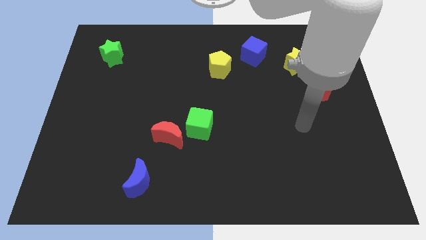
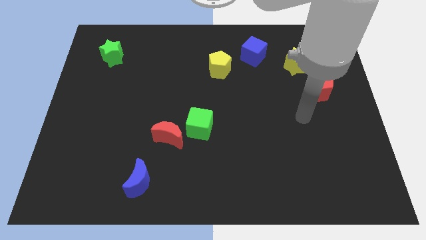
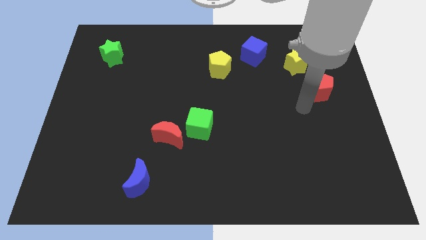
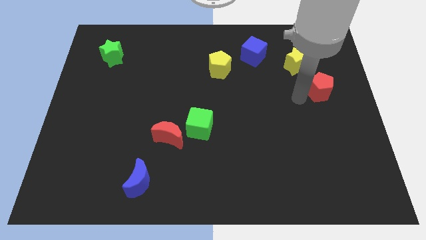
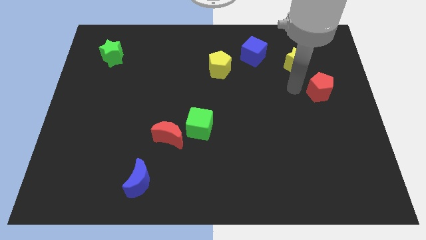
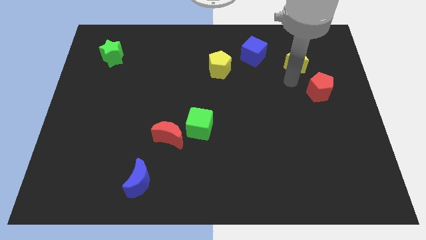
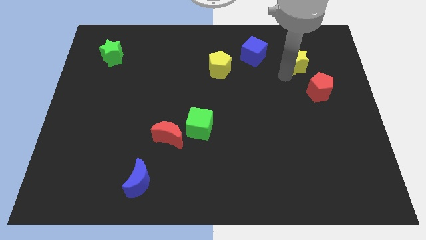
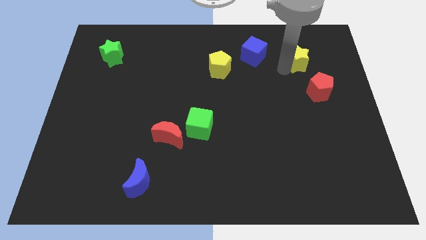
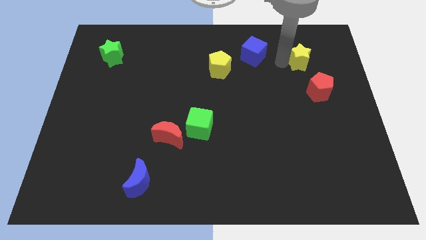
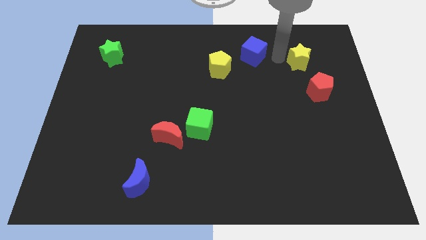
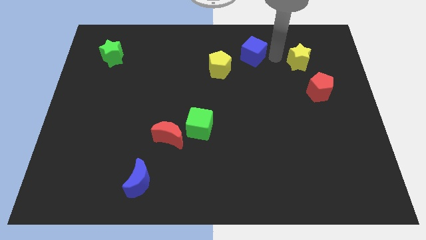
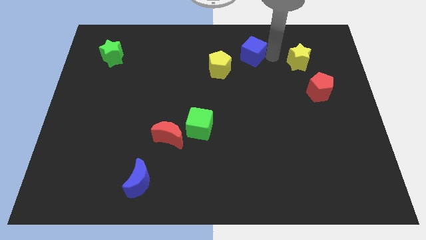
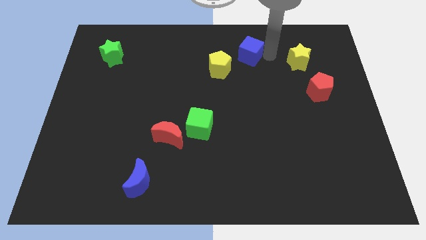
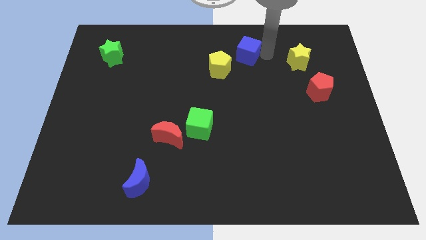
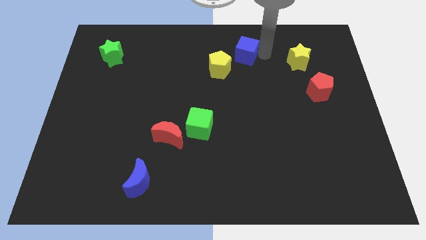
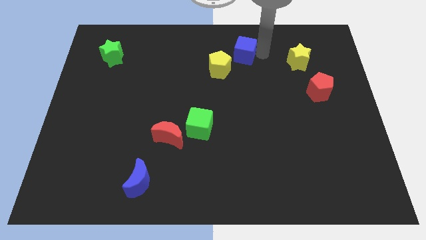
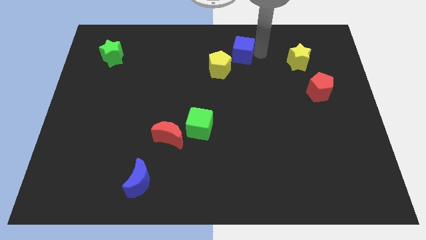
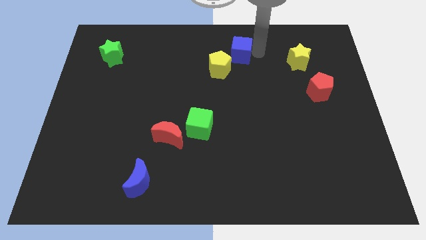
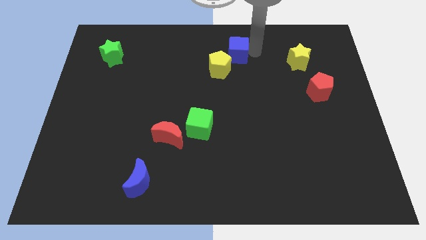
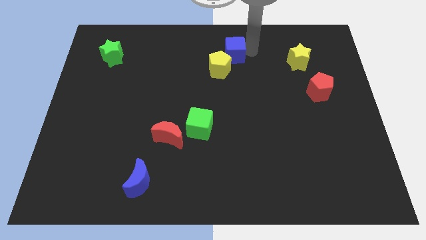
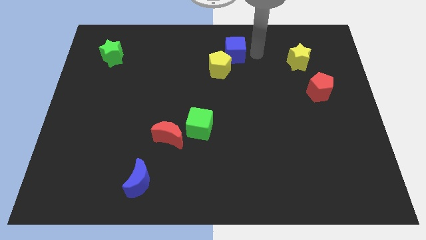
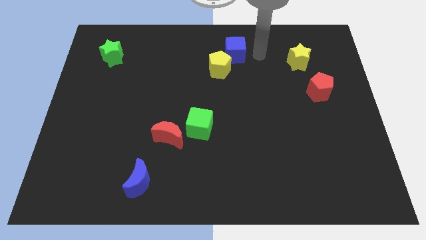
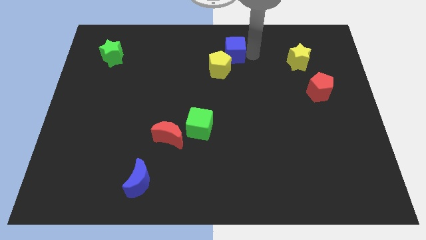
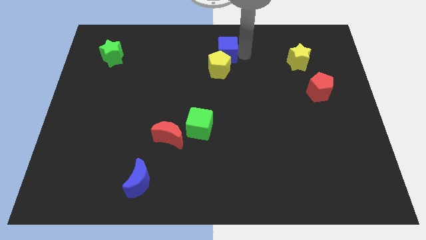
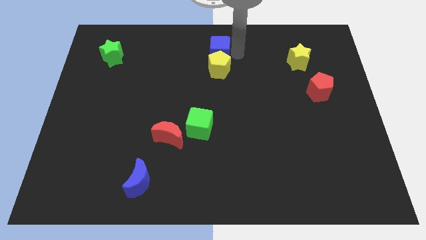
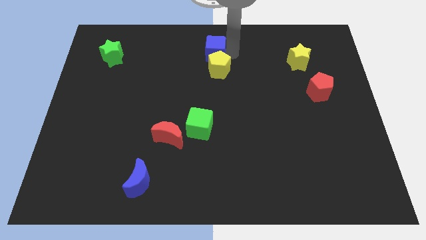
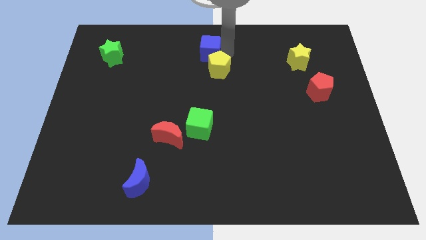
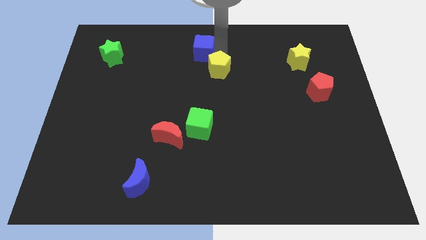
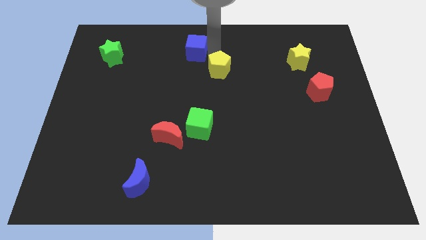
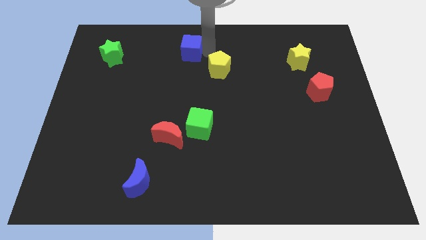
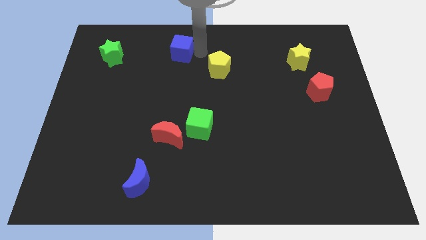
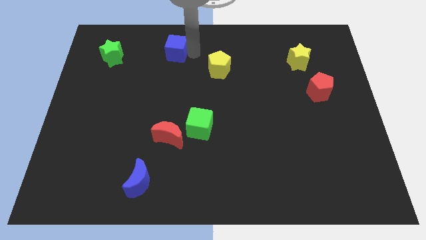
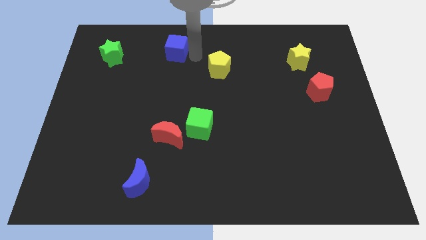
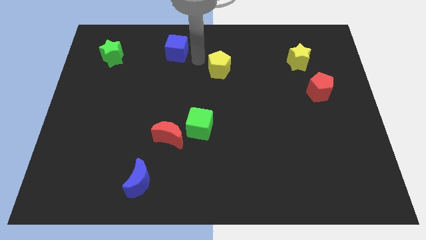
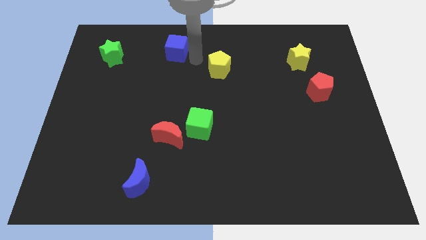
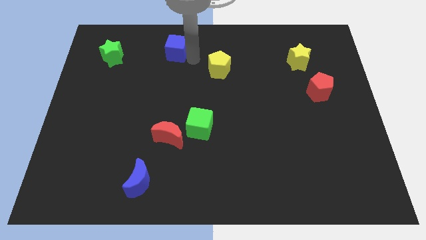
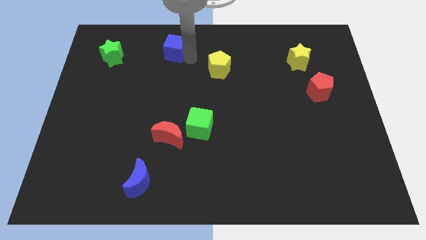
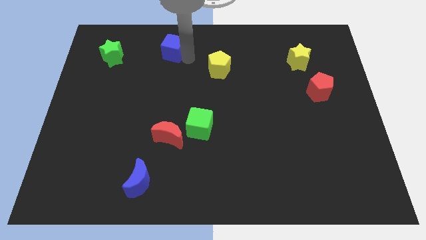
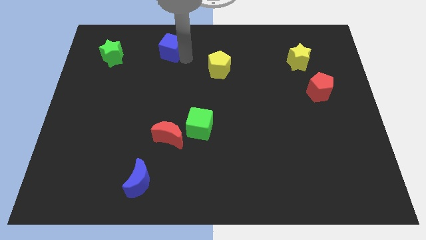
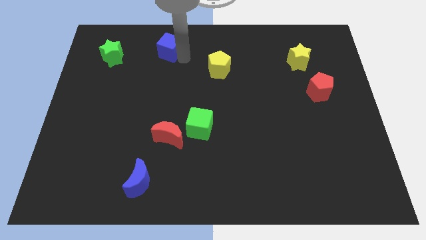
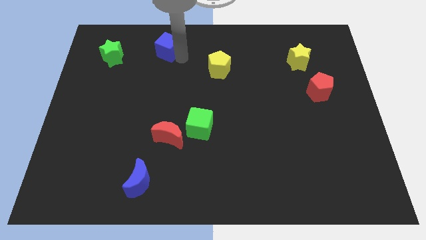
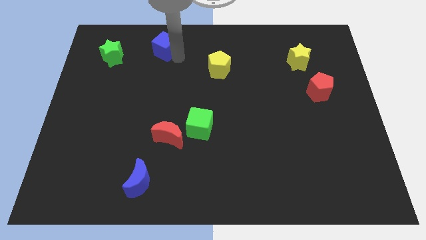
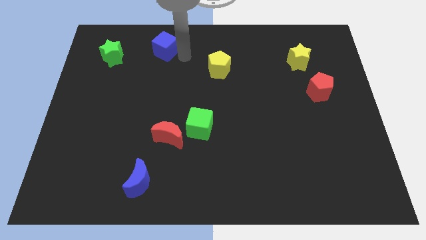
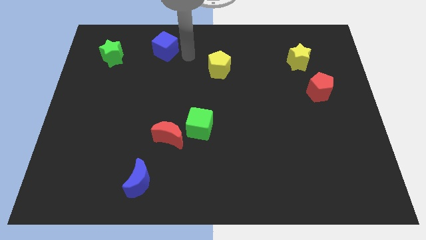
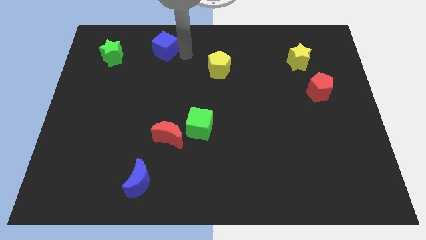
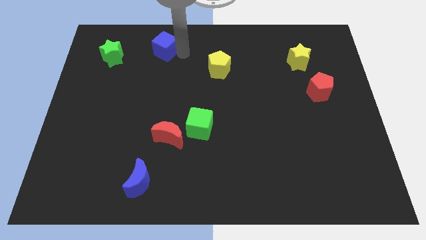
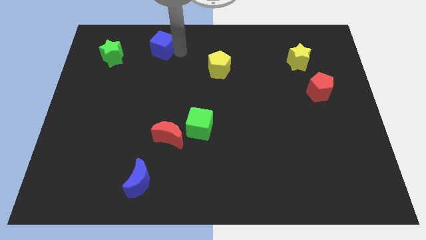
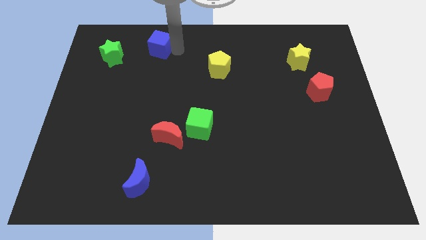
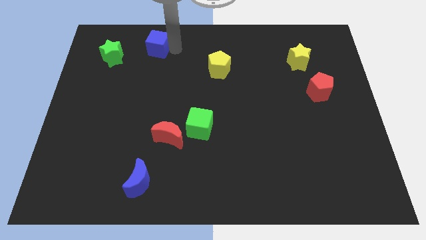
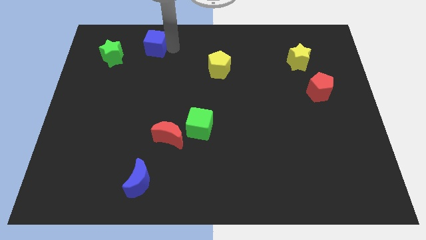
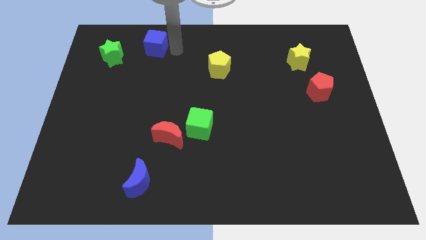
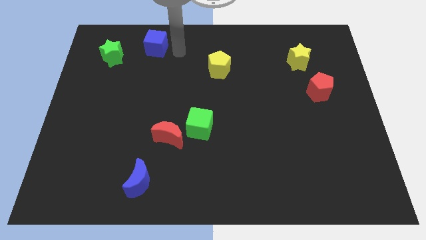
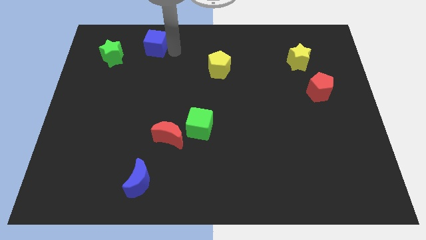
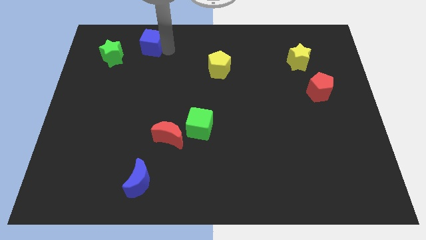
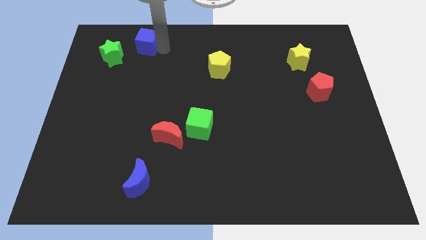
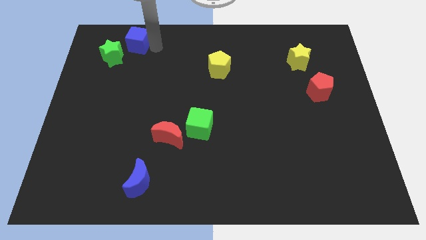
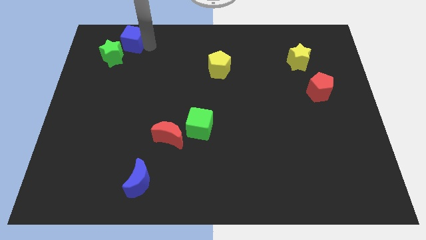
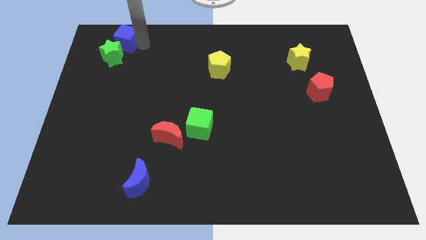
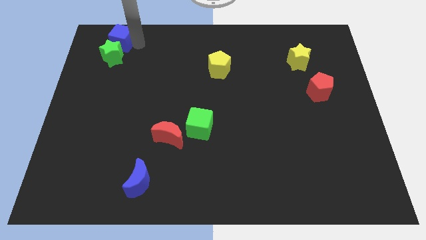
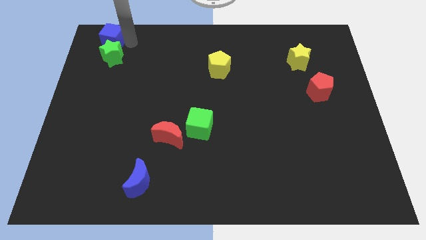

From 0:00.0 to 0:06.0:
move the blue cube to the top left corner

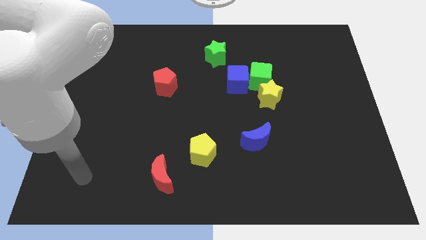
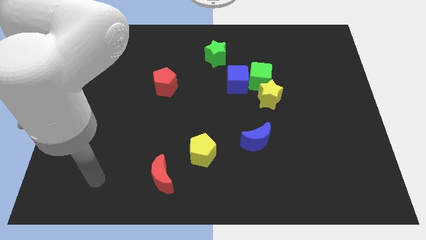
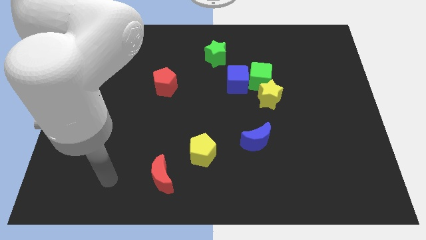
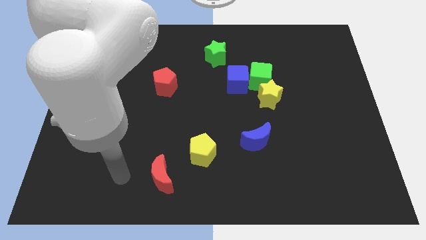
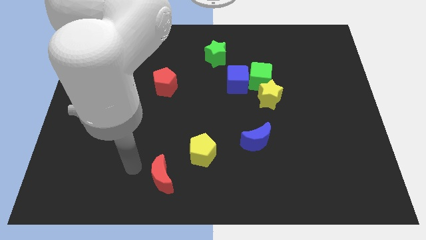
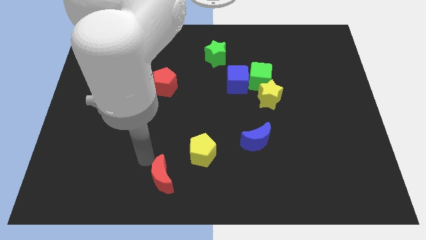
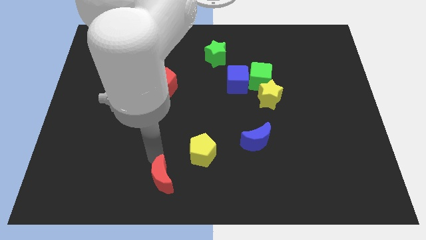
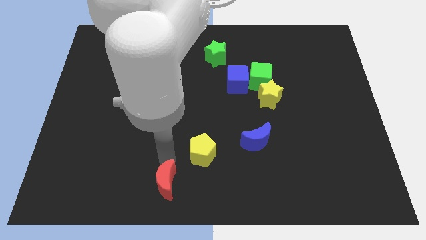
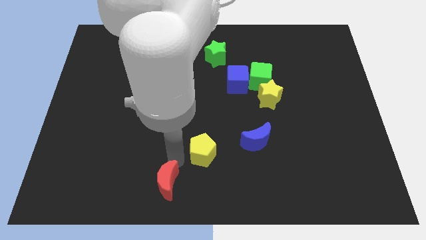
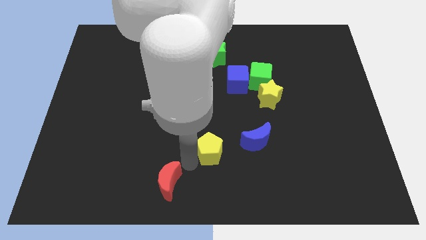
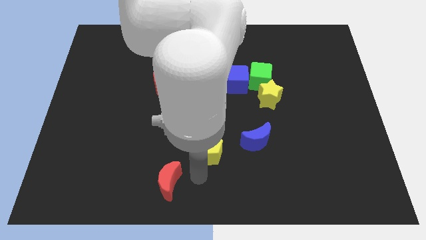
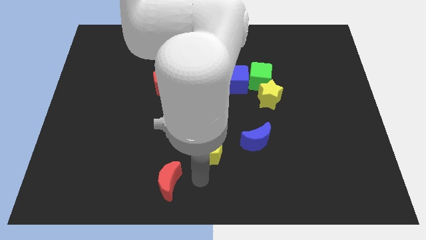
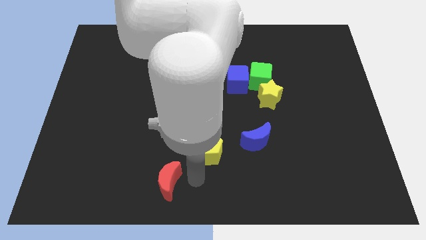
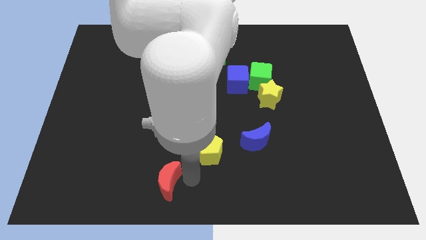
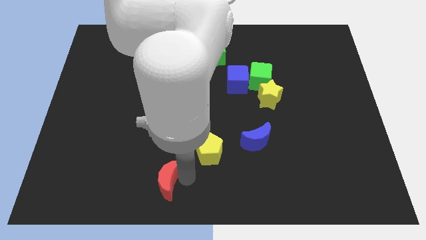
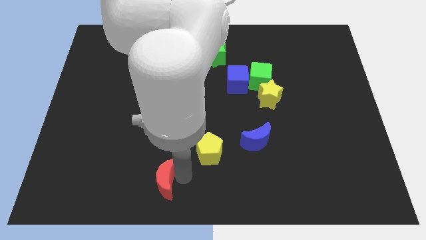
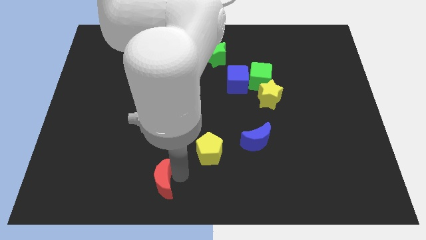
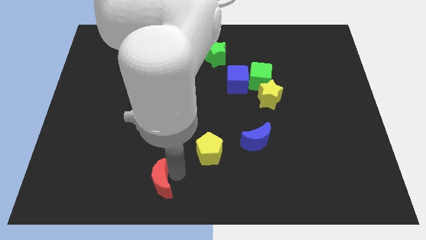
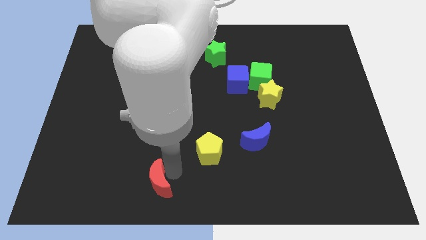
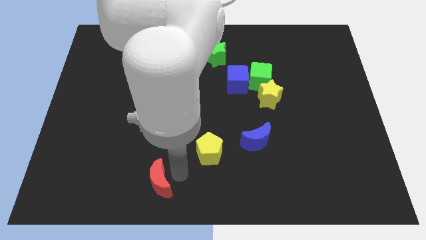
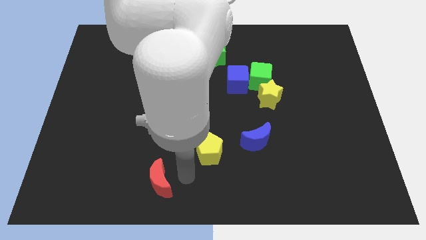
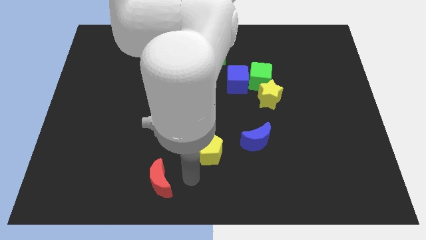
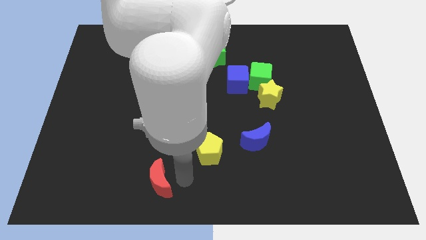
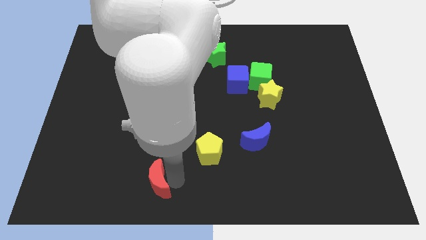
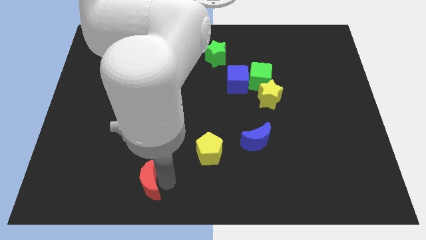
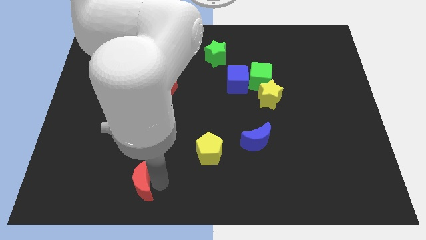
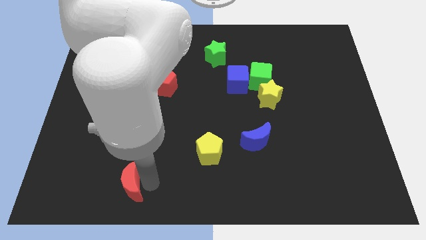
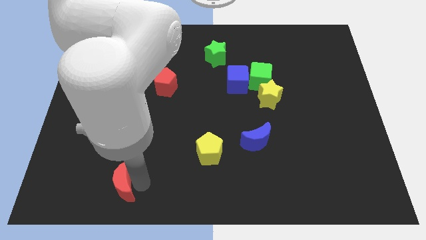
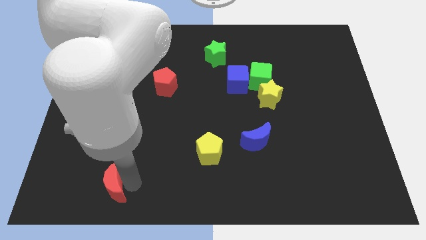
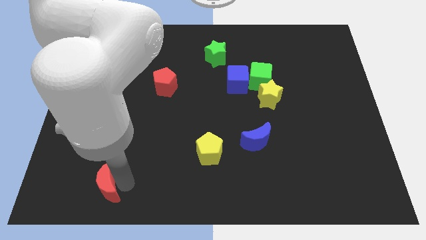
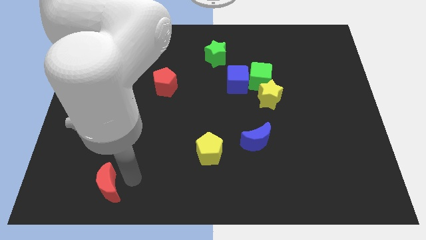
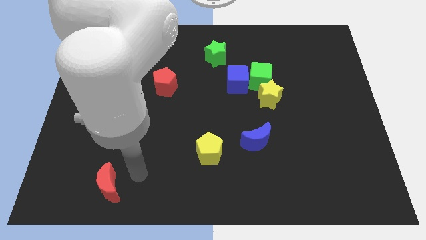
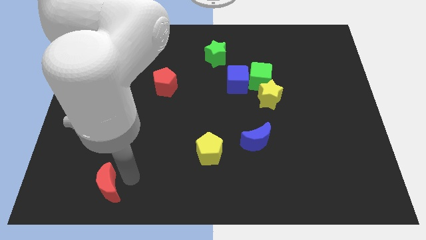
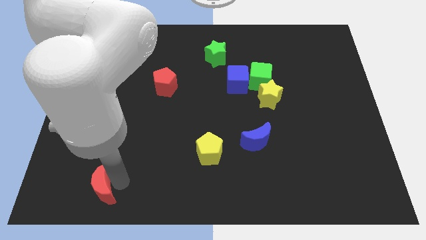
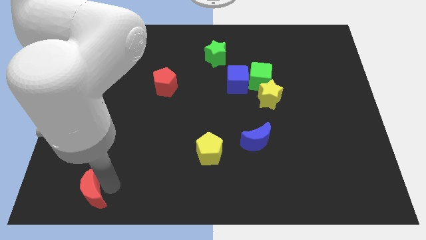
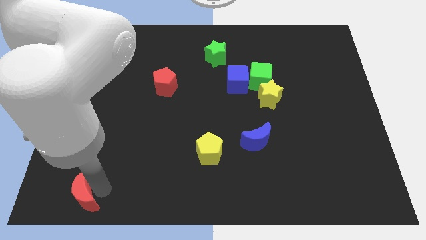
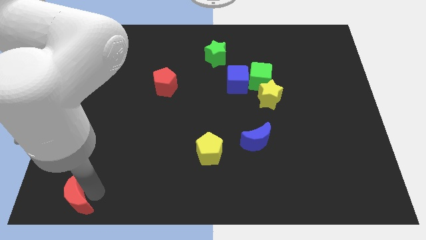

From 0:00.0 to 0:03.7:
put the red moon to the bottom left
